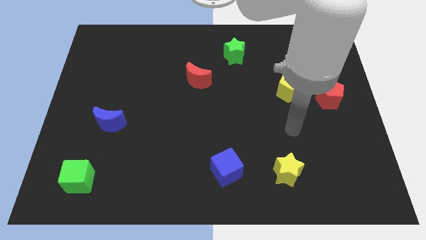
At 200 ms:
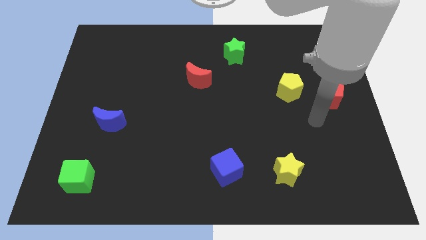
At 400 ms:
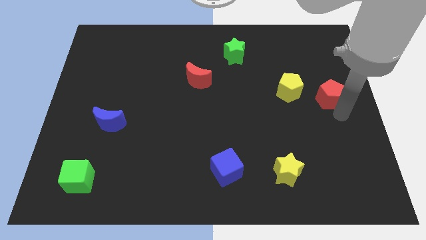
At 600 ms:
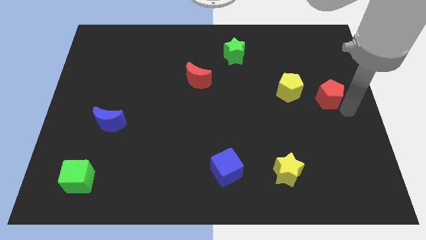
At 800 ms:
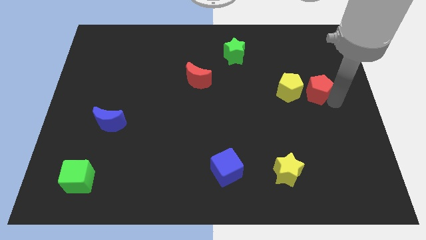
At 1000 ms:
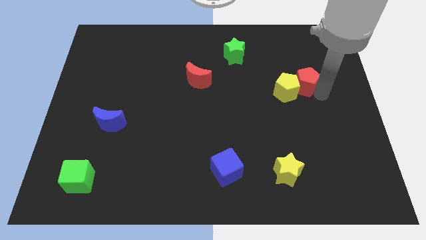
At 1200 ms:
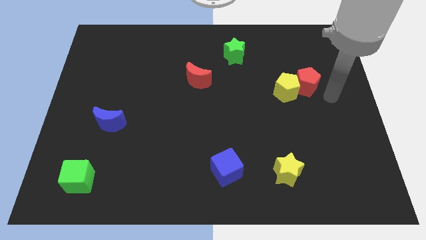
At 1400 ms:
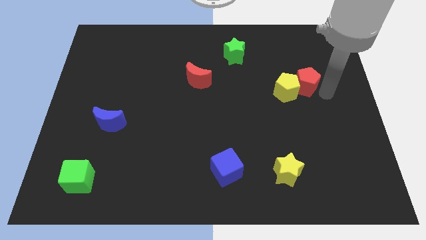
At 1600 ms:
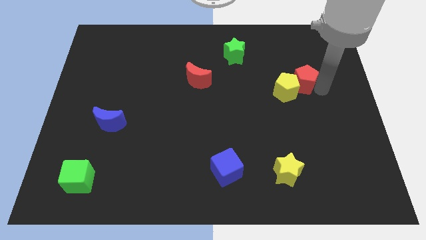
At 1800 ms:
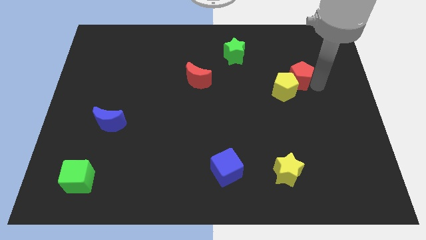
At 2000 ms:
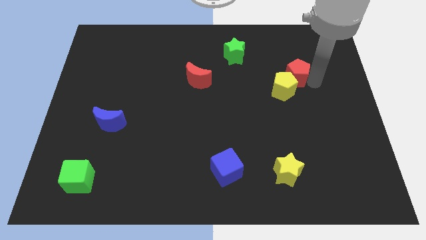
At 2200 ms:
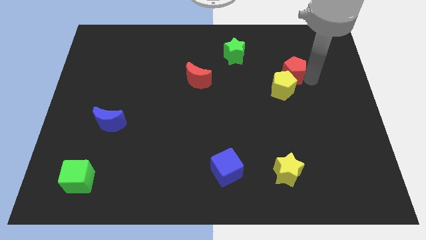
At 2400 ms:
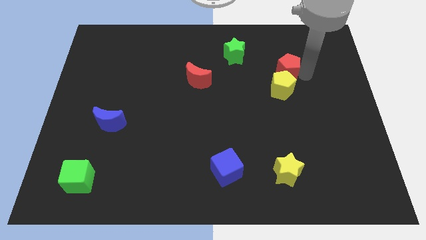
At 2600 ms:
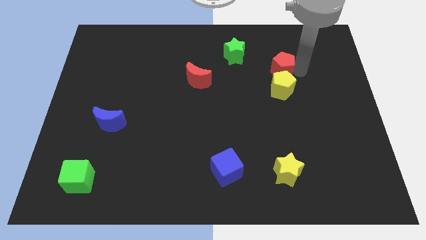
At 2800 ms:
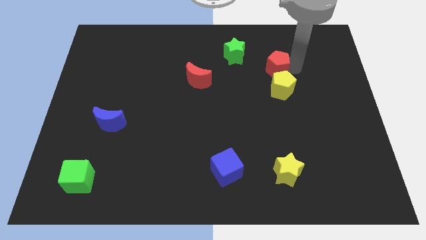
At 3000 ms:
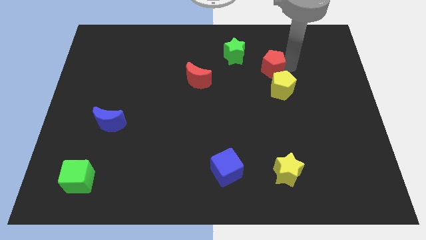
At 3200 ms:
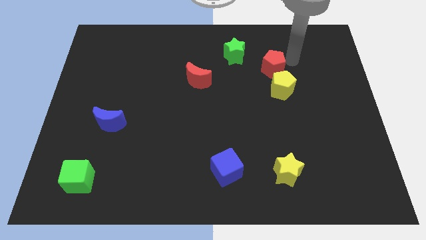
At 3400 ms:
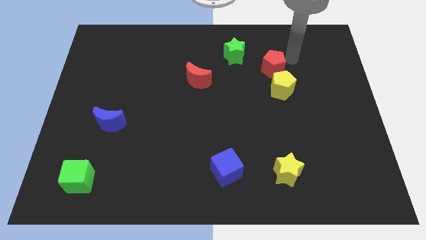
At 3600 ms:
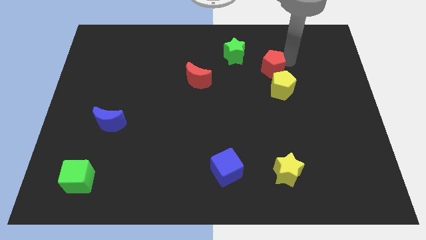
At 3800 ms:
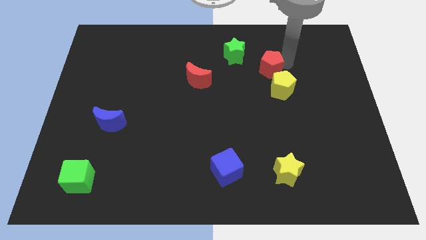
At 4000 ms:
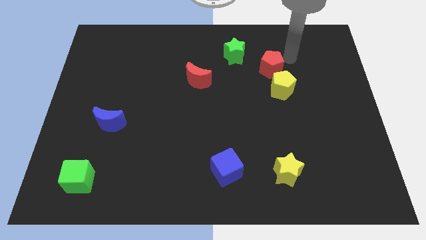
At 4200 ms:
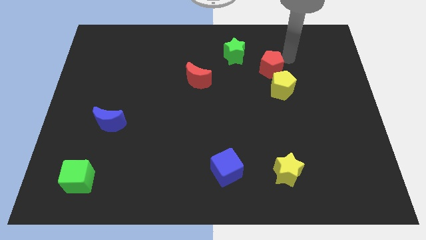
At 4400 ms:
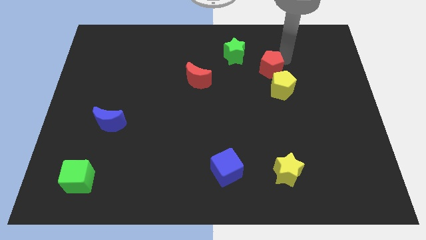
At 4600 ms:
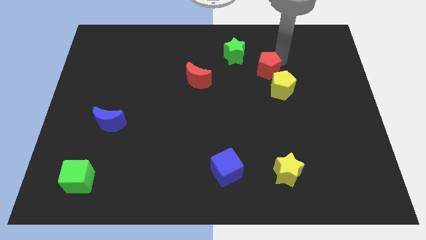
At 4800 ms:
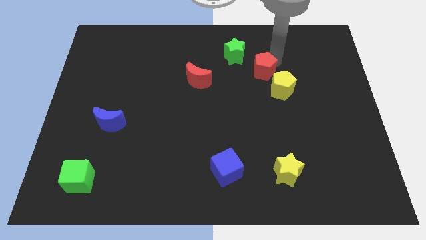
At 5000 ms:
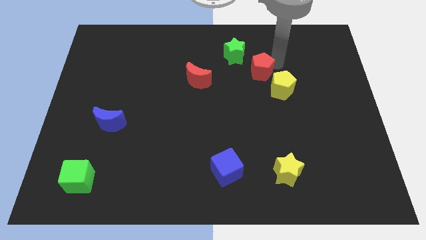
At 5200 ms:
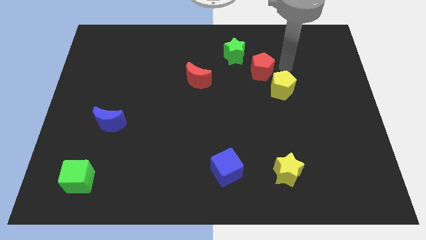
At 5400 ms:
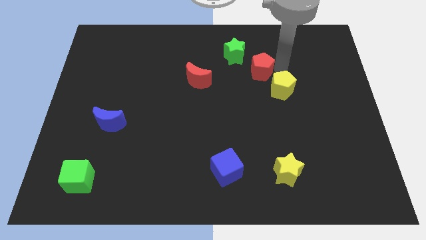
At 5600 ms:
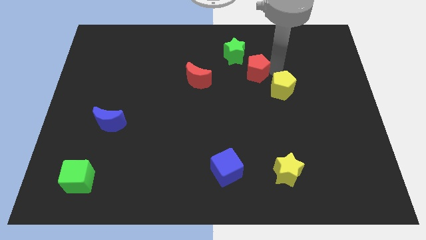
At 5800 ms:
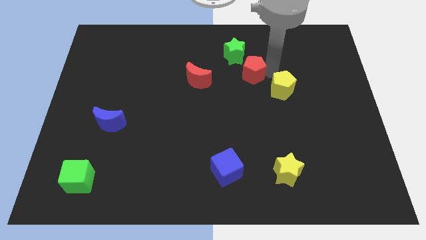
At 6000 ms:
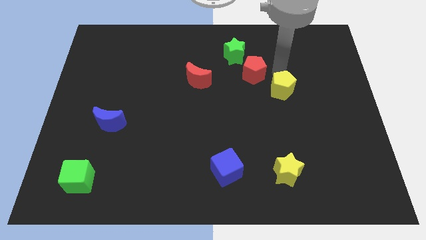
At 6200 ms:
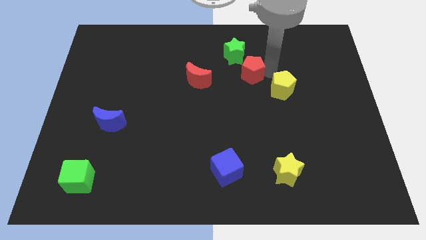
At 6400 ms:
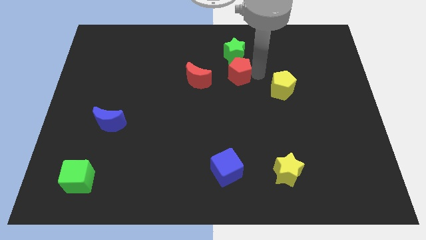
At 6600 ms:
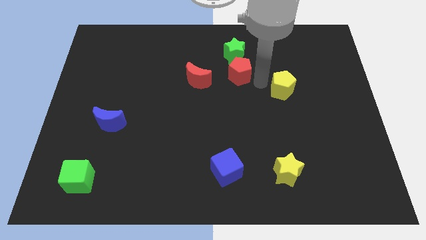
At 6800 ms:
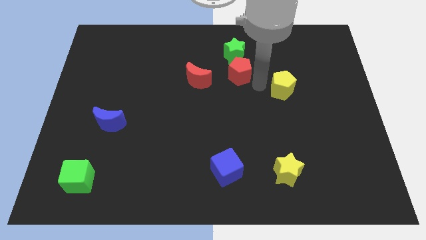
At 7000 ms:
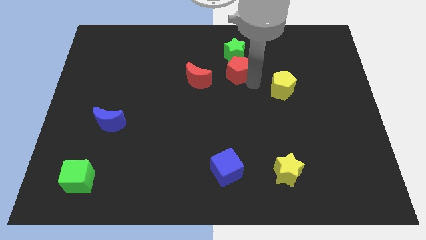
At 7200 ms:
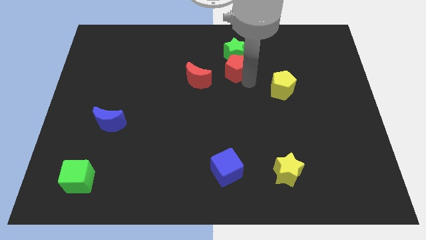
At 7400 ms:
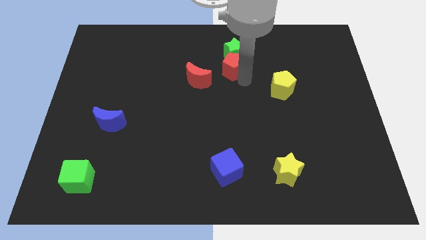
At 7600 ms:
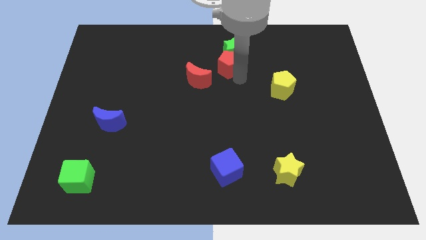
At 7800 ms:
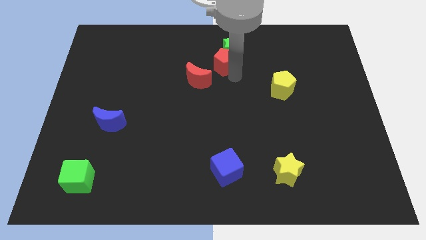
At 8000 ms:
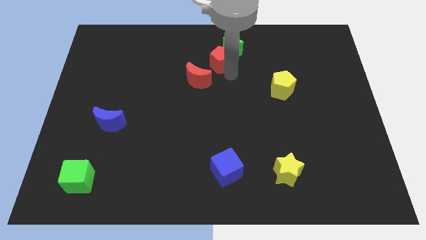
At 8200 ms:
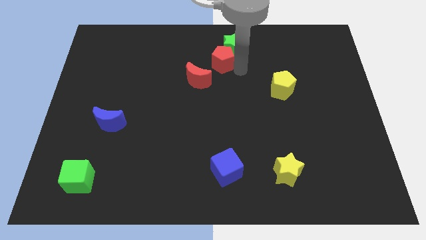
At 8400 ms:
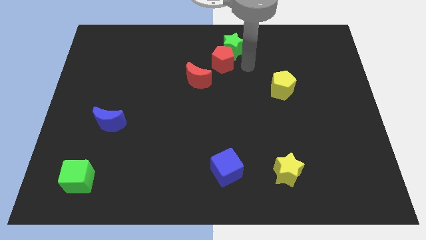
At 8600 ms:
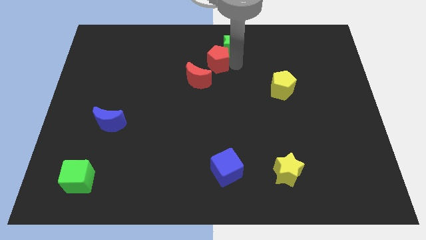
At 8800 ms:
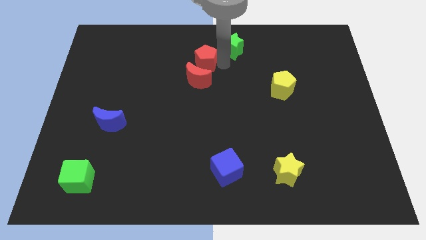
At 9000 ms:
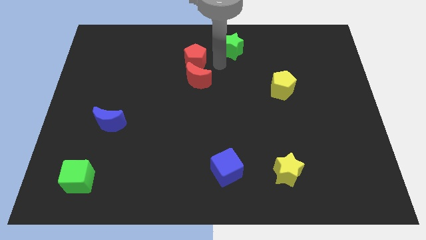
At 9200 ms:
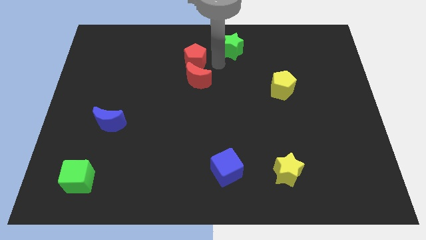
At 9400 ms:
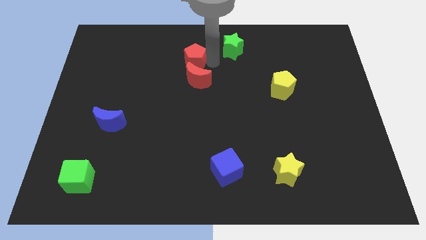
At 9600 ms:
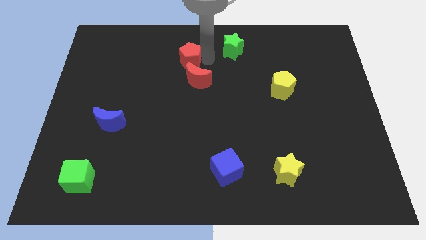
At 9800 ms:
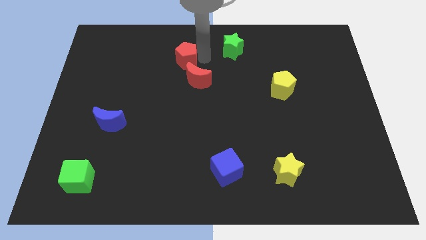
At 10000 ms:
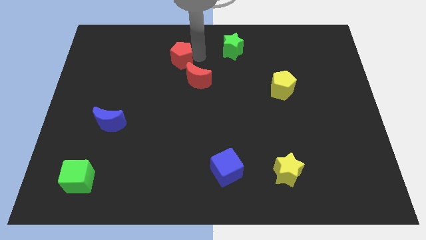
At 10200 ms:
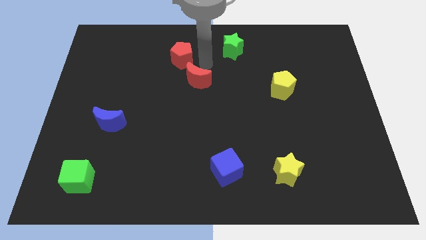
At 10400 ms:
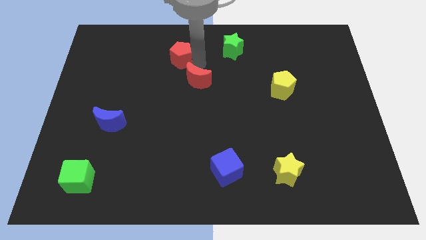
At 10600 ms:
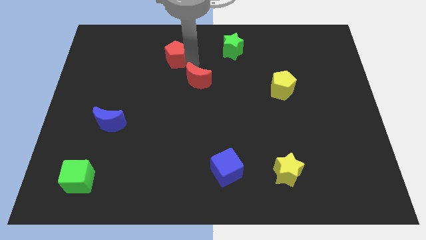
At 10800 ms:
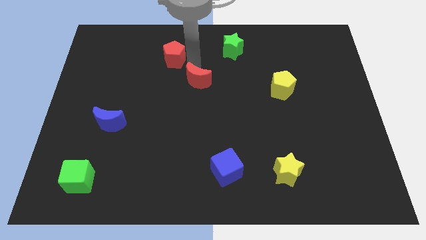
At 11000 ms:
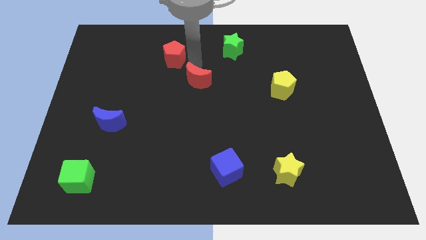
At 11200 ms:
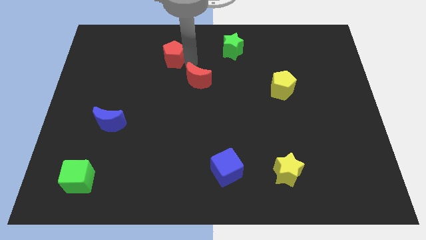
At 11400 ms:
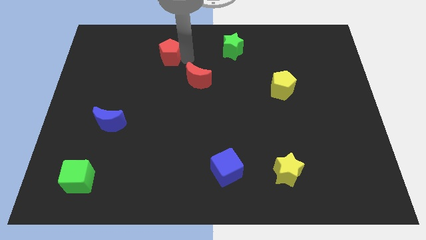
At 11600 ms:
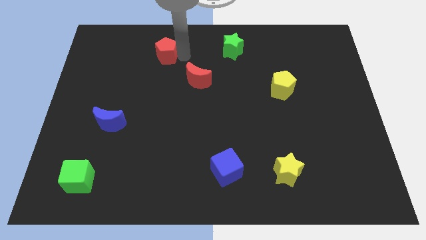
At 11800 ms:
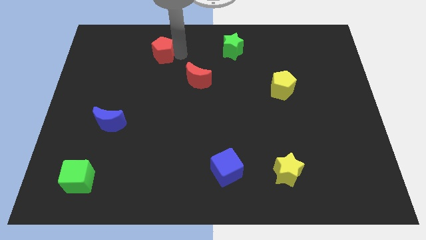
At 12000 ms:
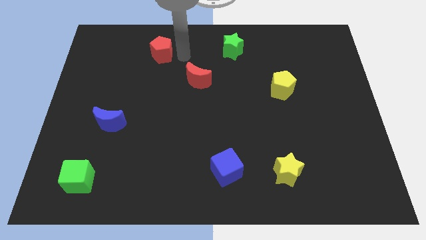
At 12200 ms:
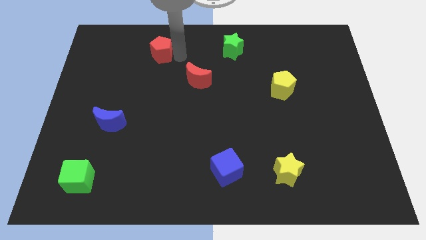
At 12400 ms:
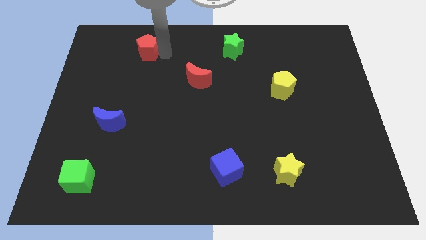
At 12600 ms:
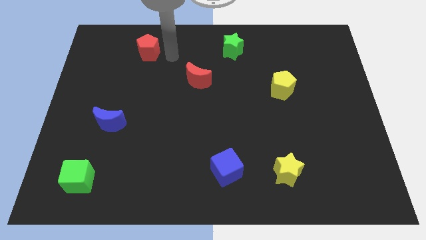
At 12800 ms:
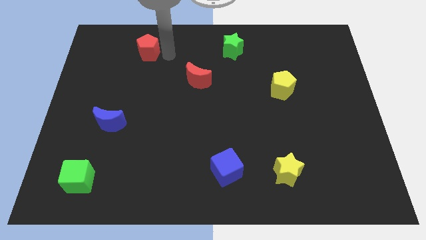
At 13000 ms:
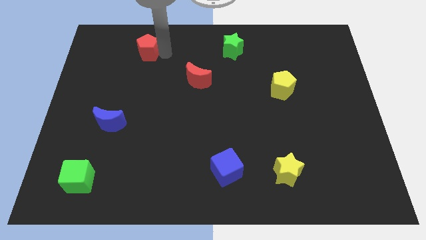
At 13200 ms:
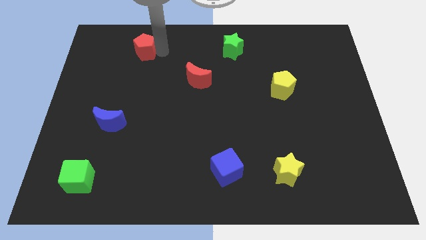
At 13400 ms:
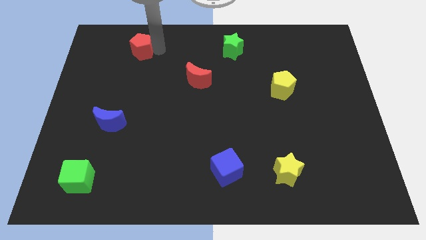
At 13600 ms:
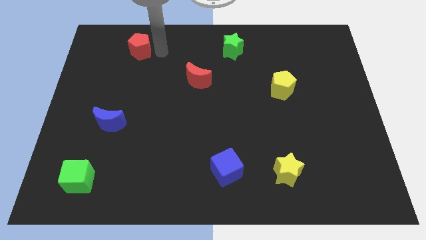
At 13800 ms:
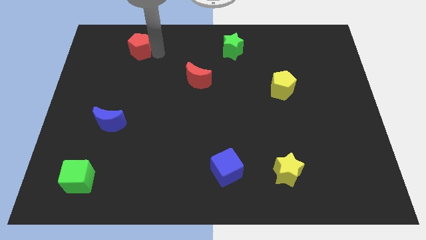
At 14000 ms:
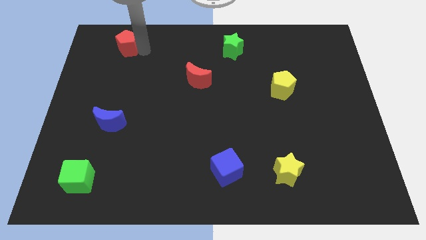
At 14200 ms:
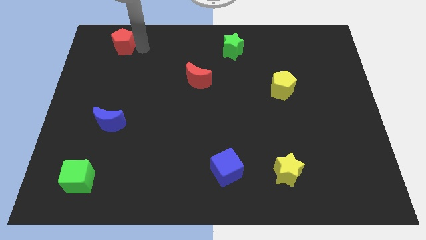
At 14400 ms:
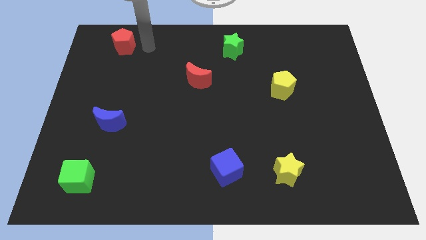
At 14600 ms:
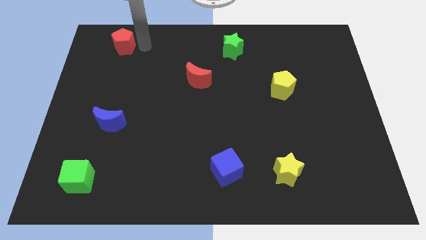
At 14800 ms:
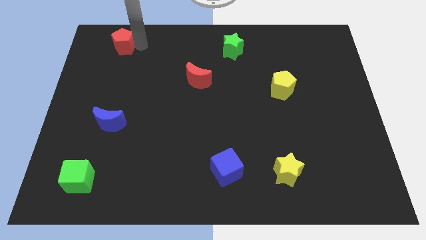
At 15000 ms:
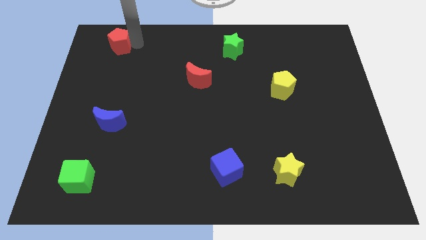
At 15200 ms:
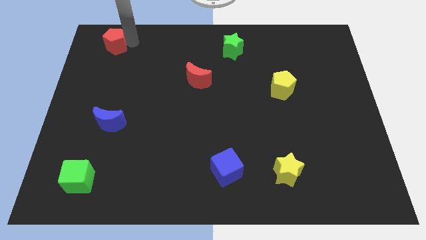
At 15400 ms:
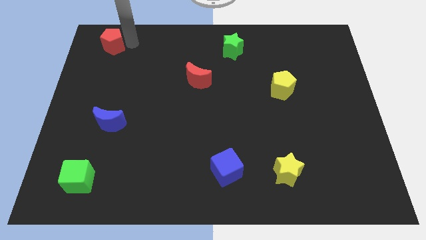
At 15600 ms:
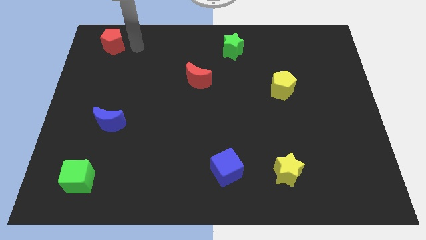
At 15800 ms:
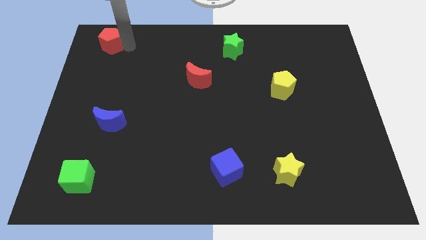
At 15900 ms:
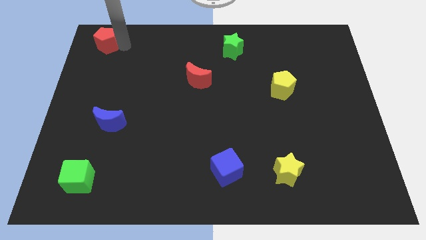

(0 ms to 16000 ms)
push the red pentagon to the upper left corner
